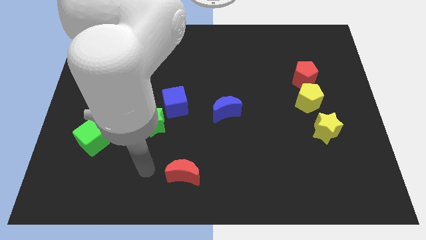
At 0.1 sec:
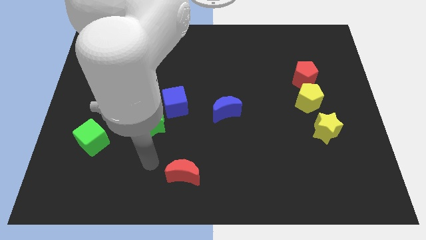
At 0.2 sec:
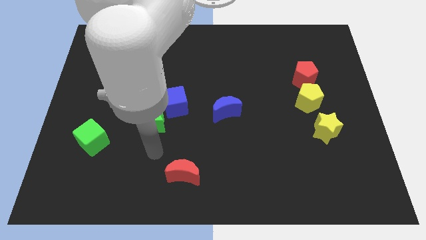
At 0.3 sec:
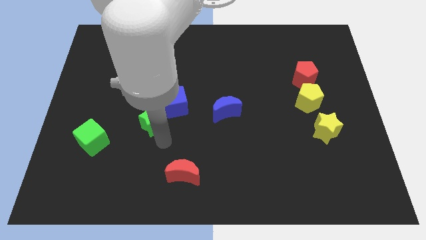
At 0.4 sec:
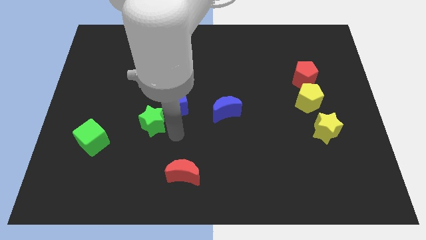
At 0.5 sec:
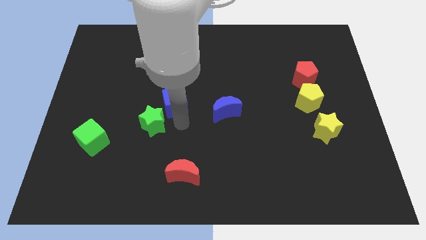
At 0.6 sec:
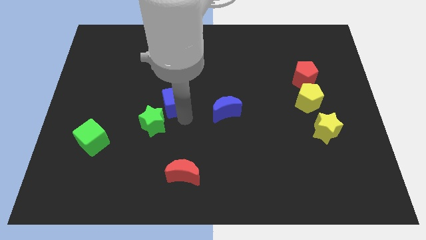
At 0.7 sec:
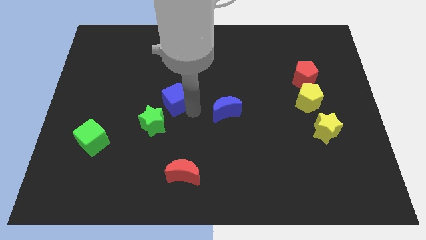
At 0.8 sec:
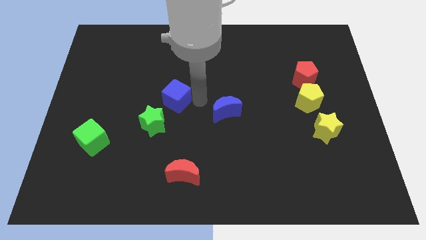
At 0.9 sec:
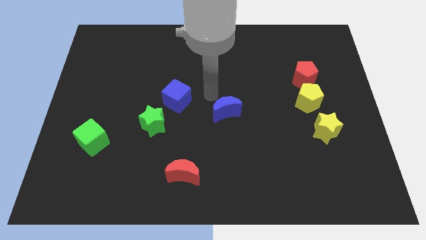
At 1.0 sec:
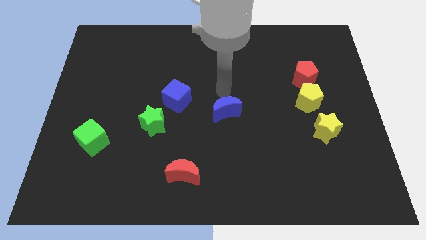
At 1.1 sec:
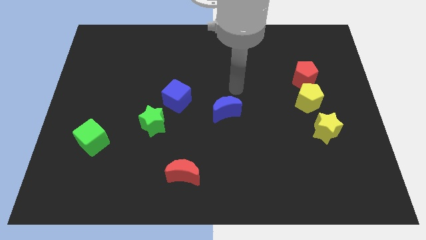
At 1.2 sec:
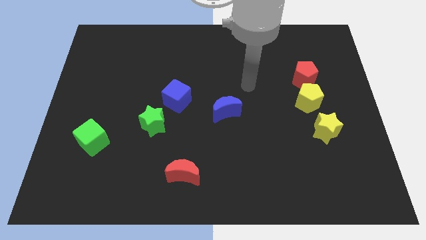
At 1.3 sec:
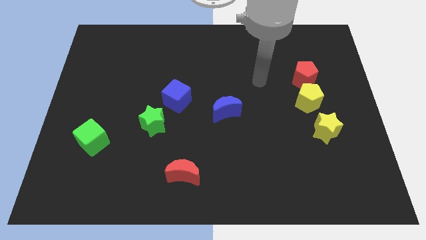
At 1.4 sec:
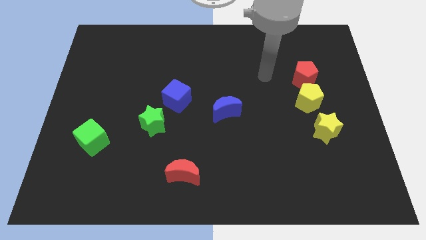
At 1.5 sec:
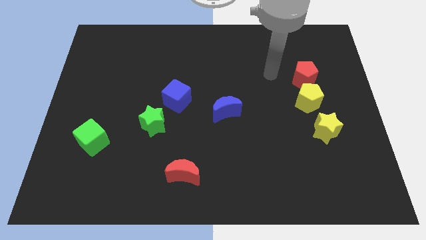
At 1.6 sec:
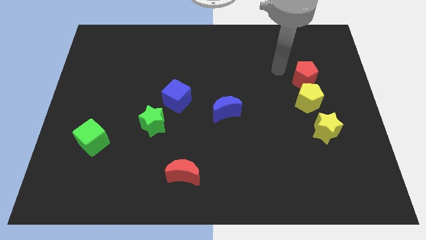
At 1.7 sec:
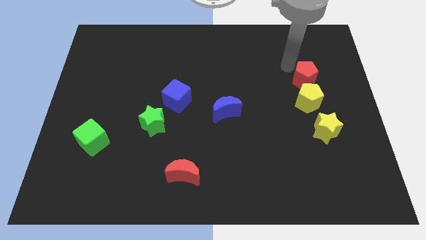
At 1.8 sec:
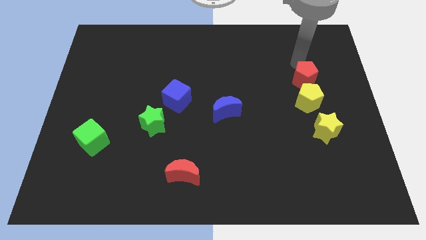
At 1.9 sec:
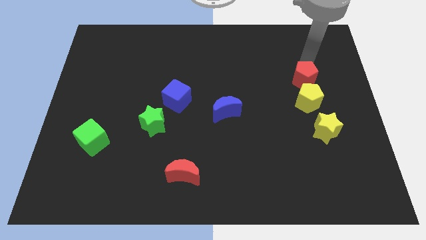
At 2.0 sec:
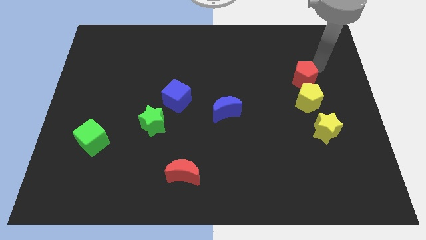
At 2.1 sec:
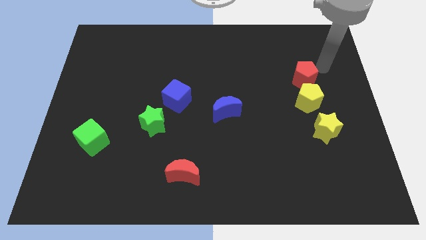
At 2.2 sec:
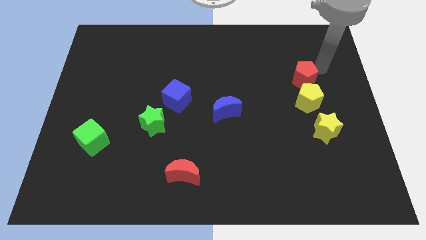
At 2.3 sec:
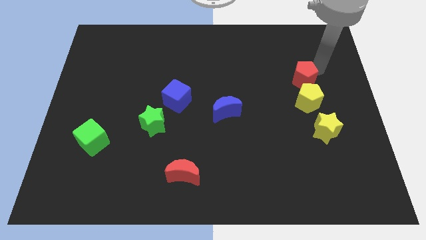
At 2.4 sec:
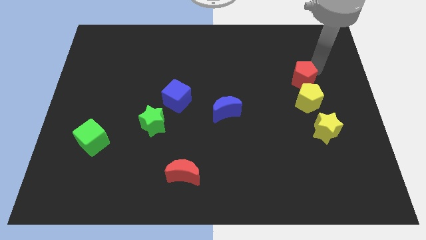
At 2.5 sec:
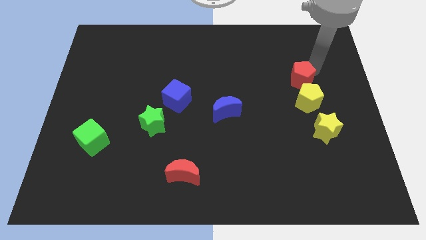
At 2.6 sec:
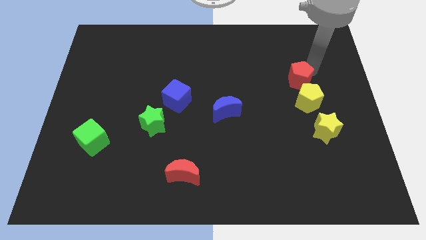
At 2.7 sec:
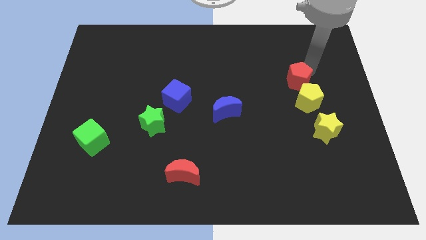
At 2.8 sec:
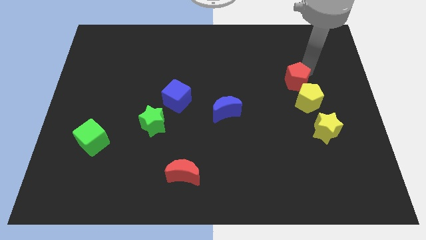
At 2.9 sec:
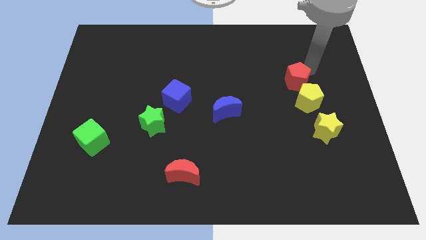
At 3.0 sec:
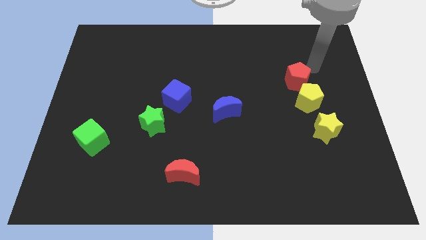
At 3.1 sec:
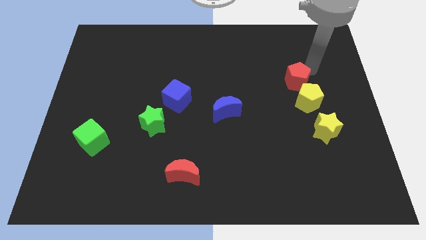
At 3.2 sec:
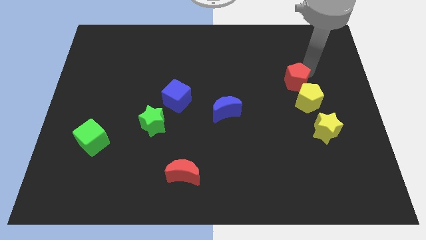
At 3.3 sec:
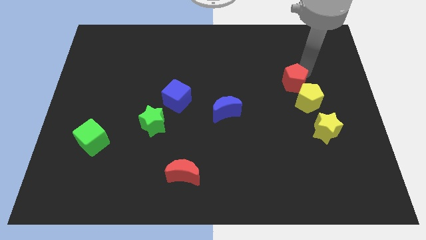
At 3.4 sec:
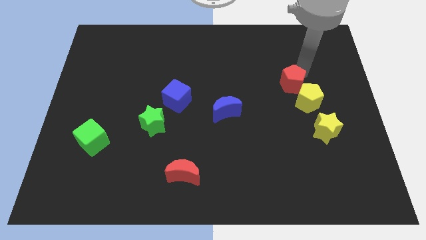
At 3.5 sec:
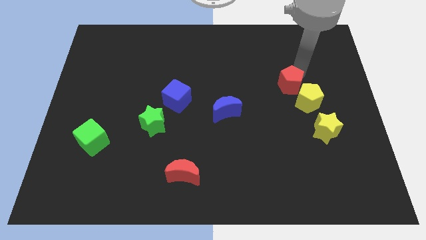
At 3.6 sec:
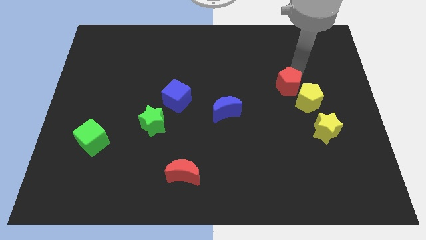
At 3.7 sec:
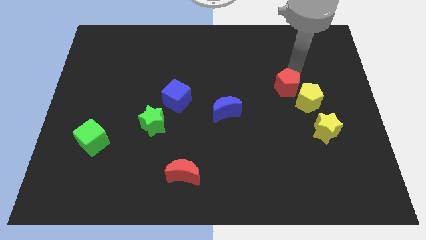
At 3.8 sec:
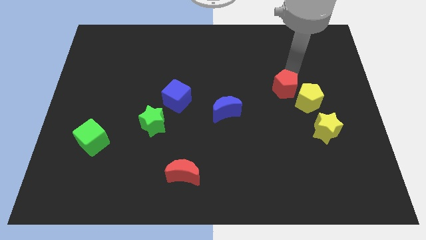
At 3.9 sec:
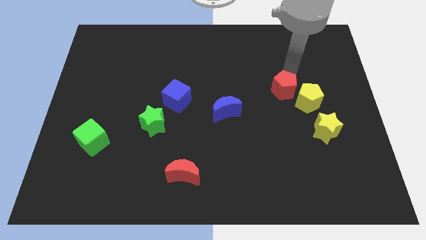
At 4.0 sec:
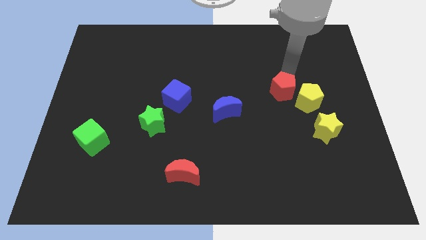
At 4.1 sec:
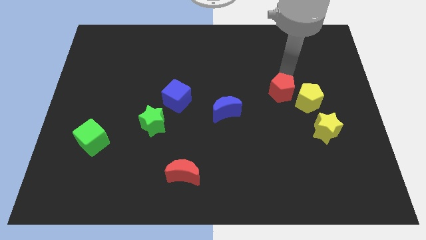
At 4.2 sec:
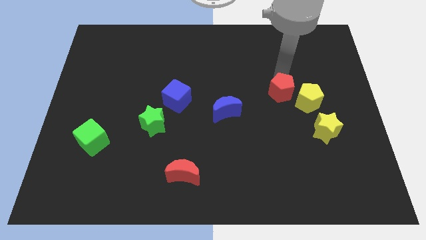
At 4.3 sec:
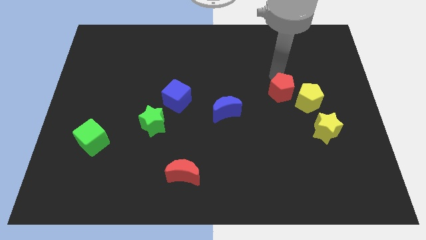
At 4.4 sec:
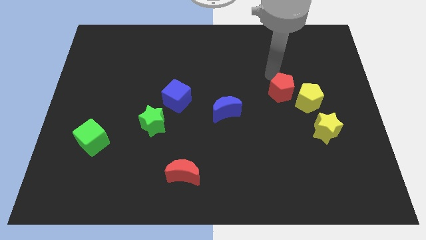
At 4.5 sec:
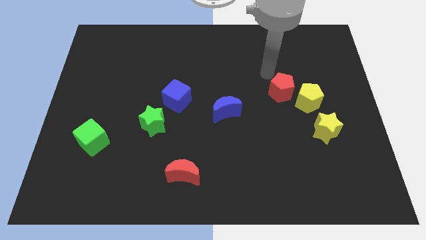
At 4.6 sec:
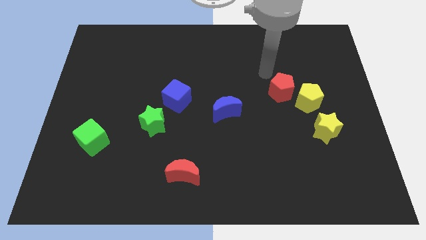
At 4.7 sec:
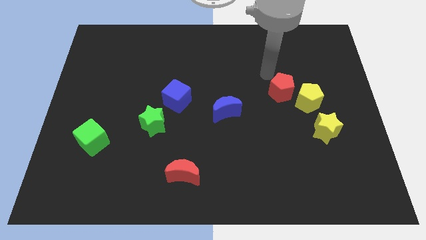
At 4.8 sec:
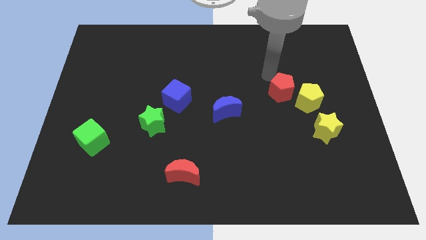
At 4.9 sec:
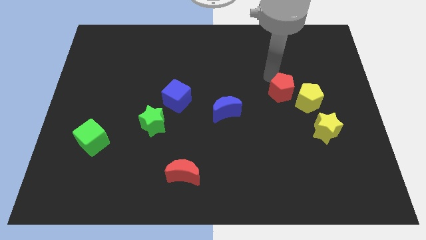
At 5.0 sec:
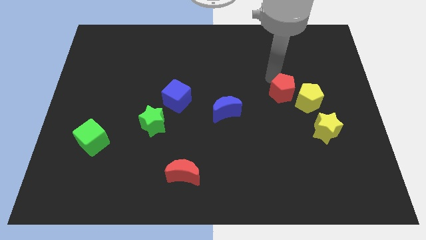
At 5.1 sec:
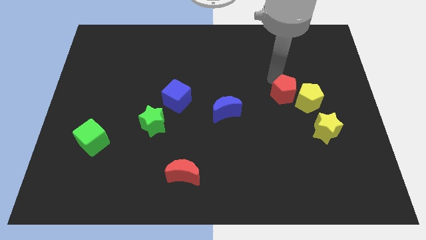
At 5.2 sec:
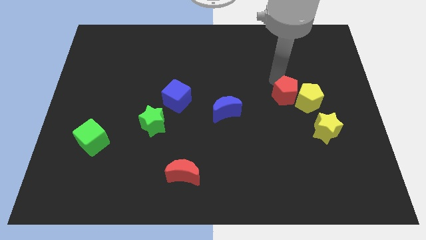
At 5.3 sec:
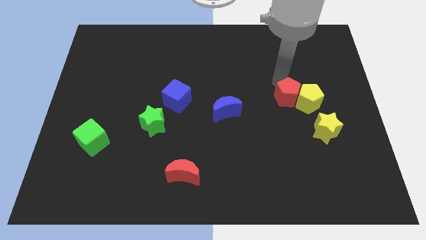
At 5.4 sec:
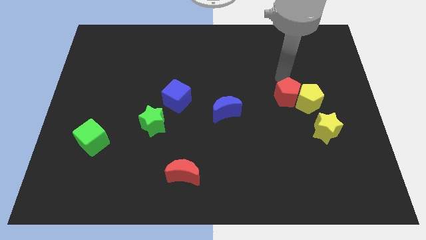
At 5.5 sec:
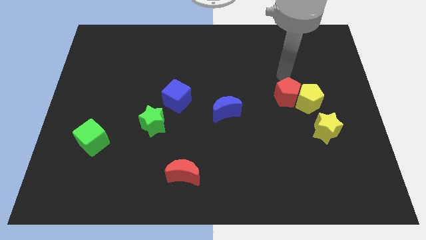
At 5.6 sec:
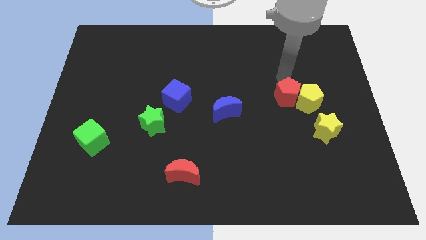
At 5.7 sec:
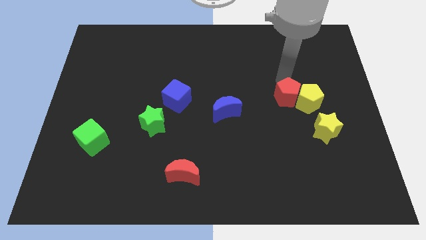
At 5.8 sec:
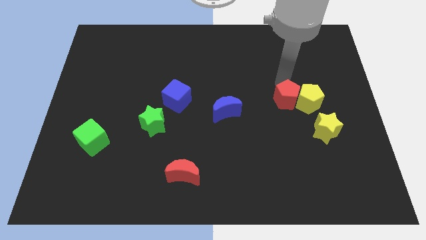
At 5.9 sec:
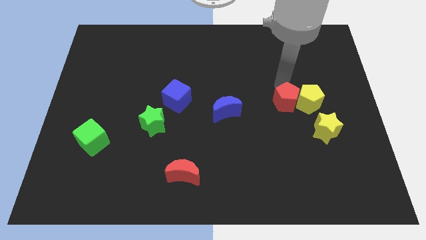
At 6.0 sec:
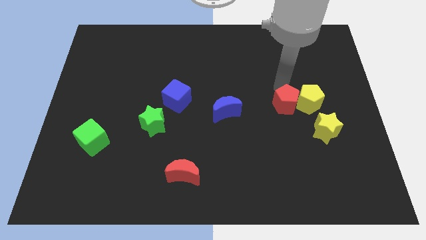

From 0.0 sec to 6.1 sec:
slightly move the red pentagon downwards

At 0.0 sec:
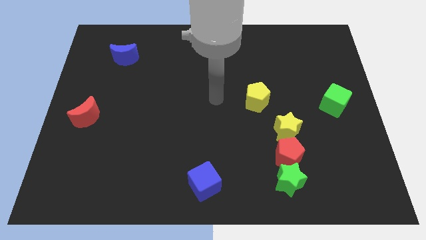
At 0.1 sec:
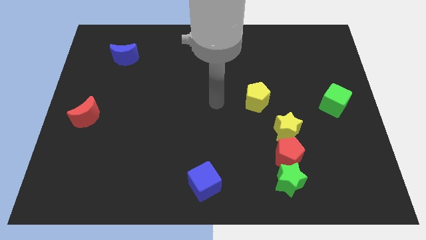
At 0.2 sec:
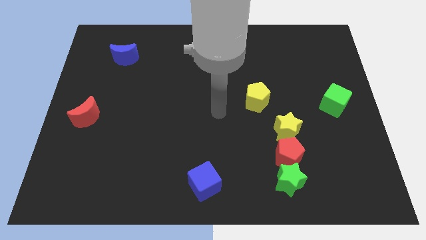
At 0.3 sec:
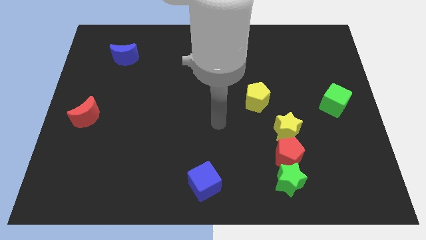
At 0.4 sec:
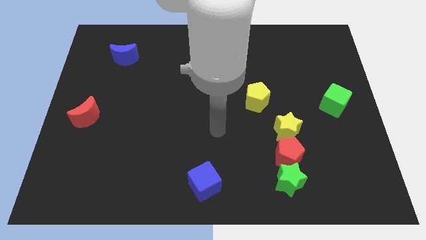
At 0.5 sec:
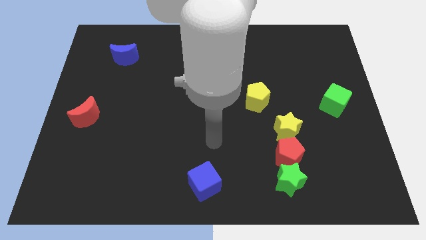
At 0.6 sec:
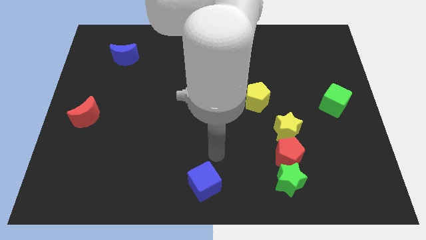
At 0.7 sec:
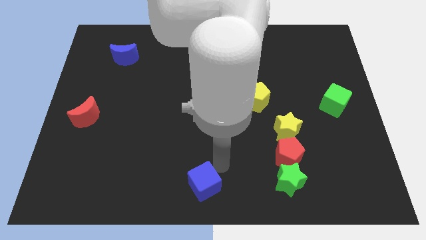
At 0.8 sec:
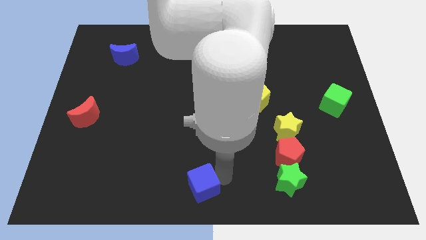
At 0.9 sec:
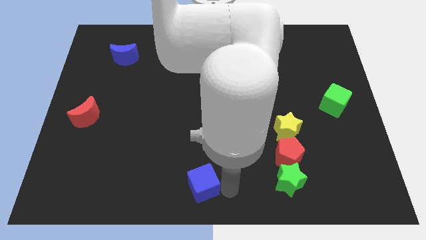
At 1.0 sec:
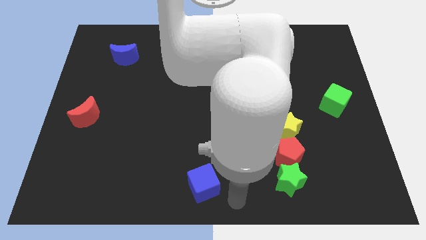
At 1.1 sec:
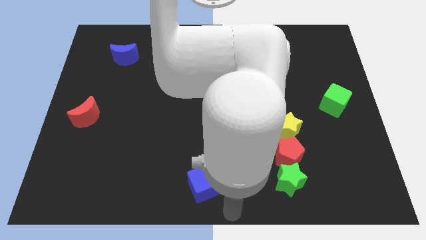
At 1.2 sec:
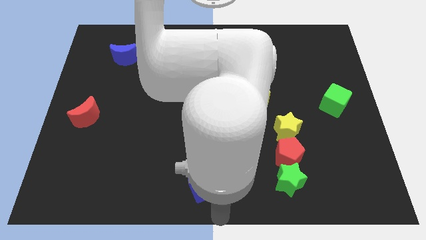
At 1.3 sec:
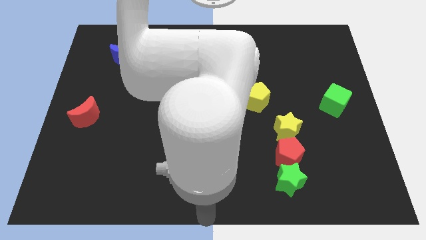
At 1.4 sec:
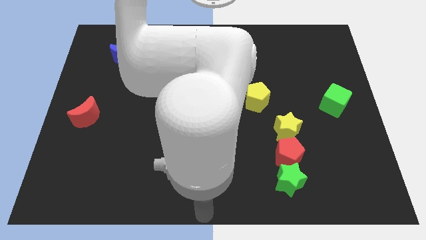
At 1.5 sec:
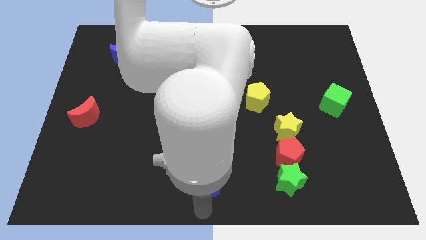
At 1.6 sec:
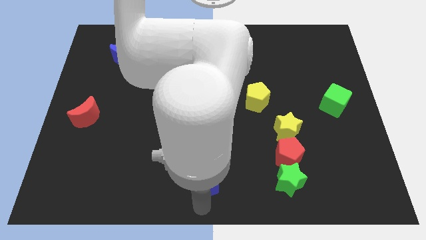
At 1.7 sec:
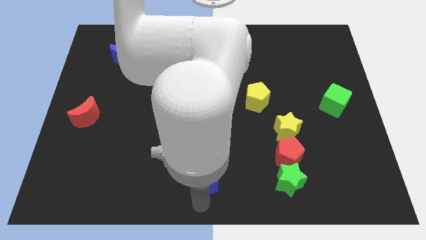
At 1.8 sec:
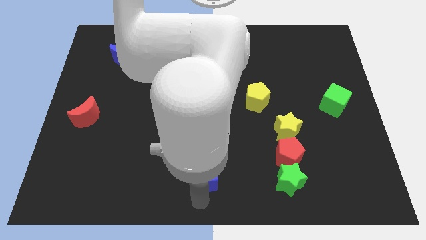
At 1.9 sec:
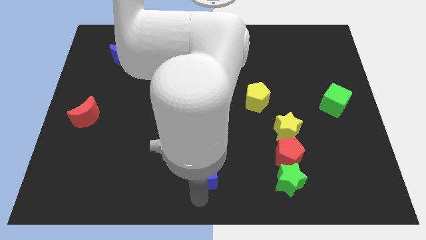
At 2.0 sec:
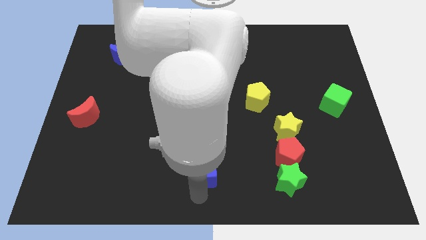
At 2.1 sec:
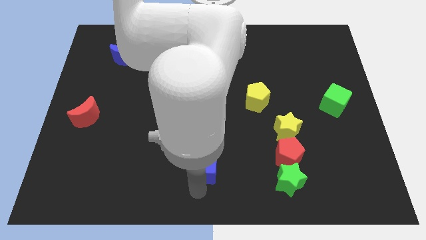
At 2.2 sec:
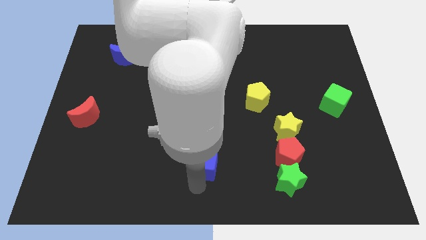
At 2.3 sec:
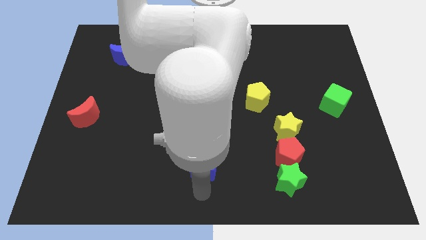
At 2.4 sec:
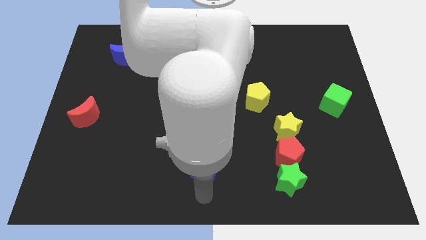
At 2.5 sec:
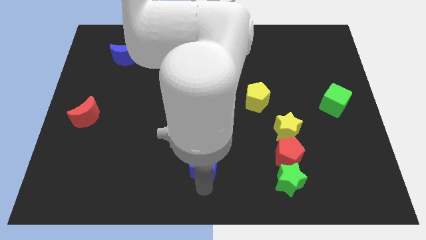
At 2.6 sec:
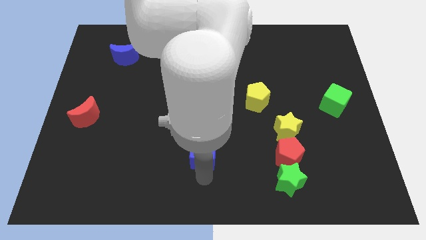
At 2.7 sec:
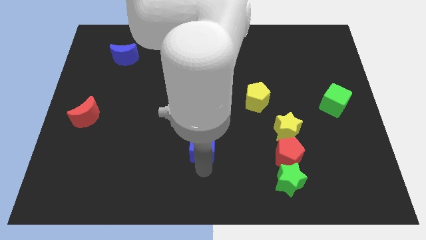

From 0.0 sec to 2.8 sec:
slightly move the blue cube up
